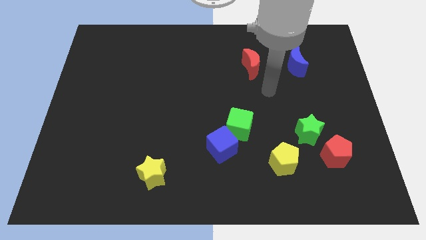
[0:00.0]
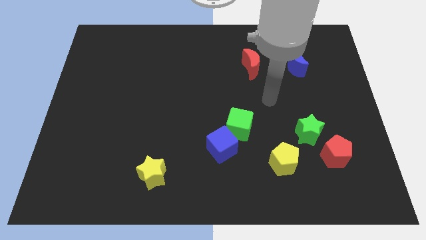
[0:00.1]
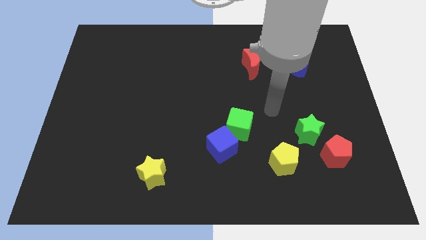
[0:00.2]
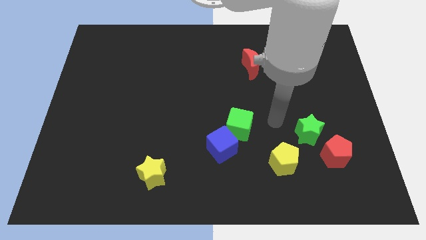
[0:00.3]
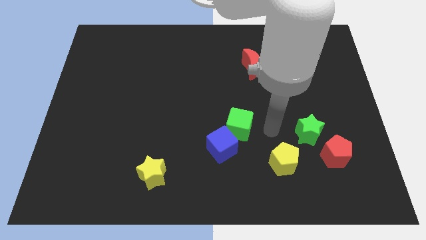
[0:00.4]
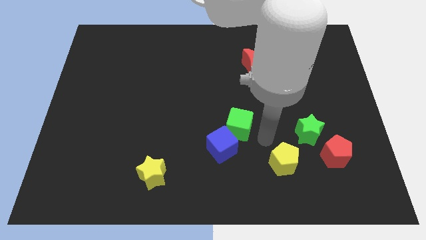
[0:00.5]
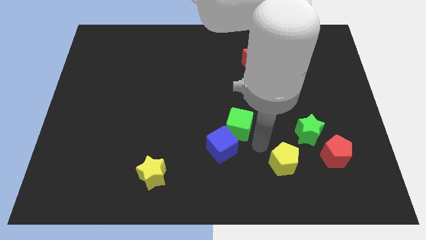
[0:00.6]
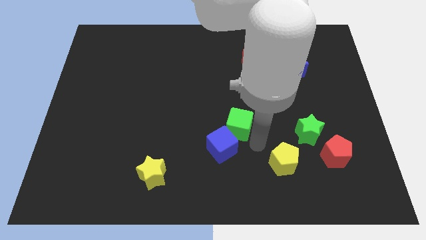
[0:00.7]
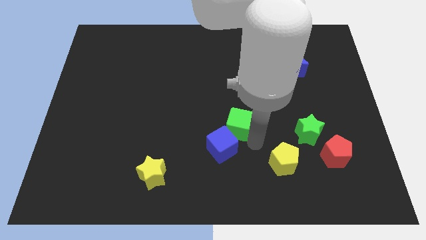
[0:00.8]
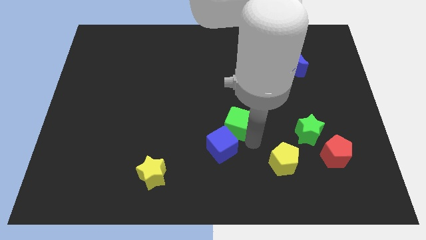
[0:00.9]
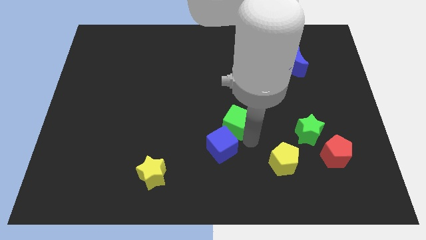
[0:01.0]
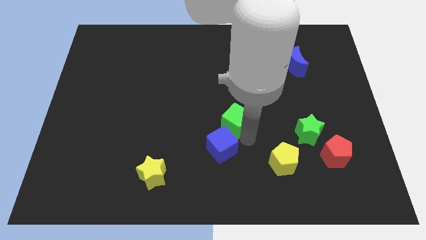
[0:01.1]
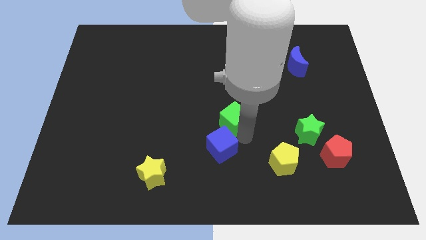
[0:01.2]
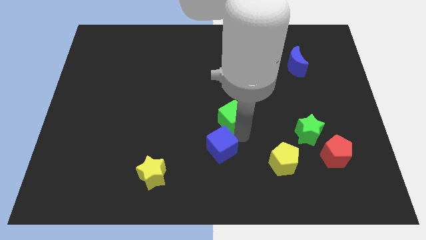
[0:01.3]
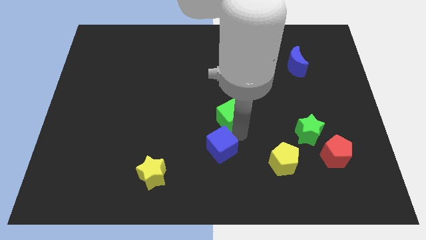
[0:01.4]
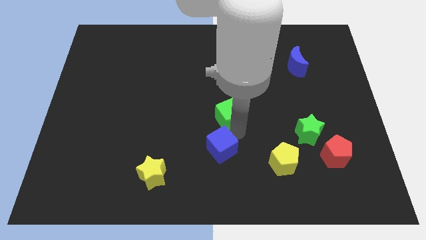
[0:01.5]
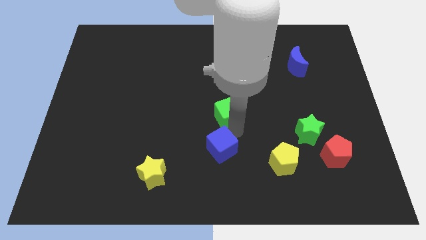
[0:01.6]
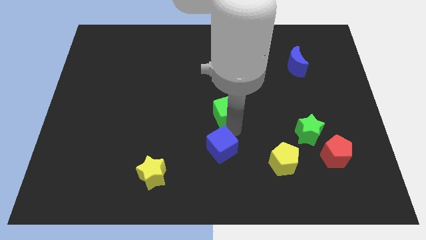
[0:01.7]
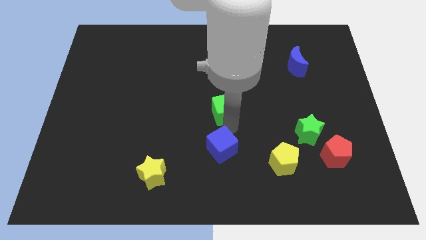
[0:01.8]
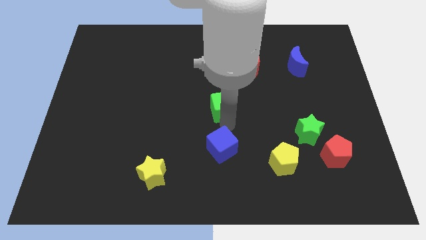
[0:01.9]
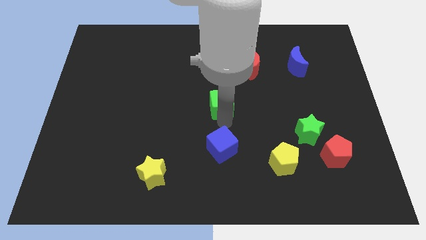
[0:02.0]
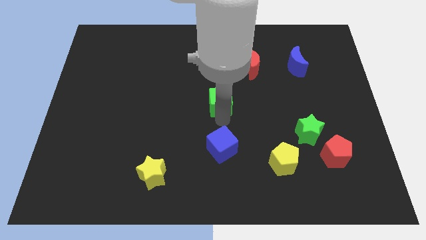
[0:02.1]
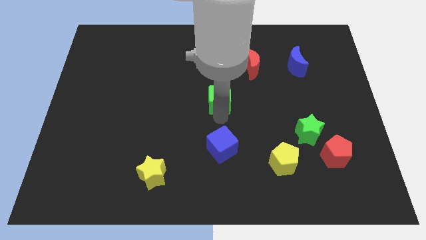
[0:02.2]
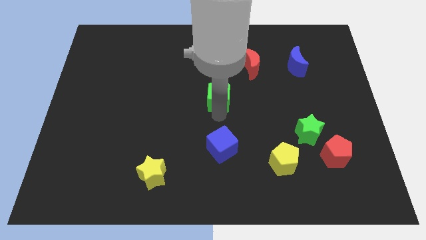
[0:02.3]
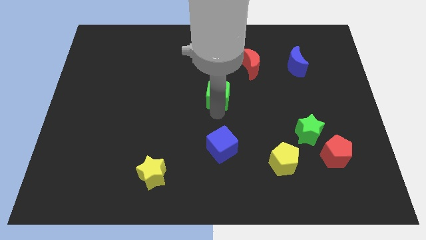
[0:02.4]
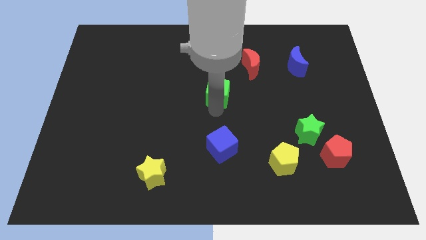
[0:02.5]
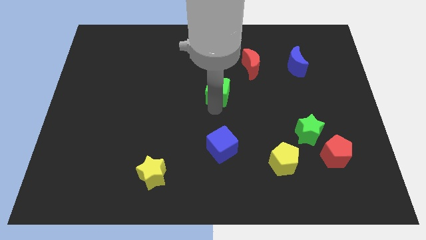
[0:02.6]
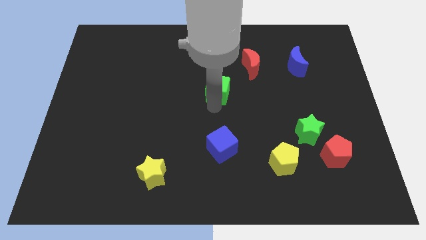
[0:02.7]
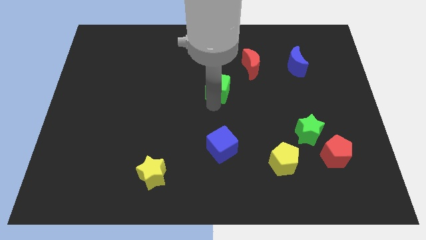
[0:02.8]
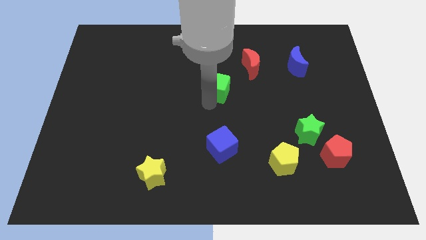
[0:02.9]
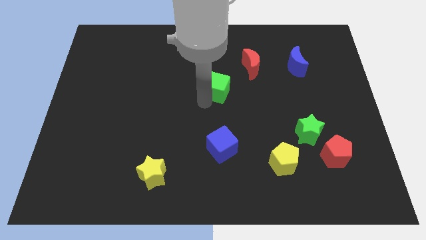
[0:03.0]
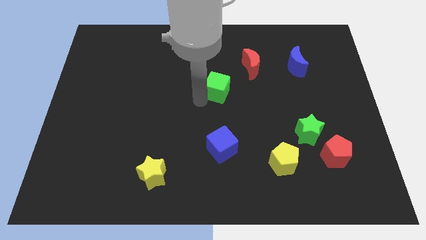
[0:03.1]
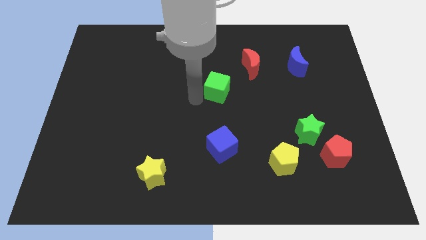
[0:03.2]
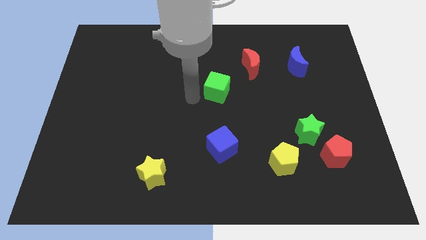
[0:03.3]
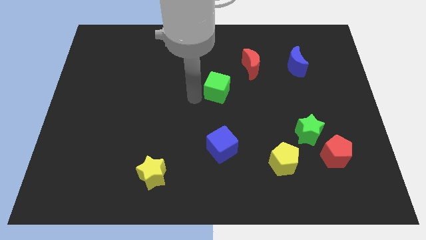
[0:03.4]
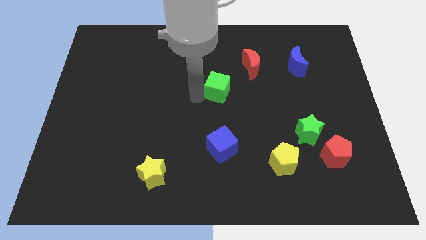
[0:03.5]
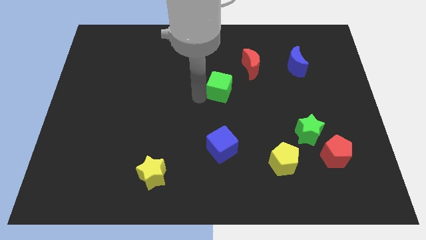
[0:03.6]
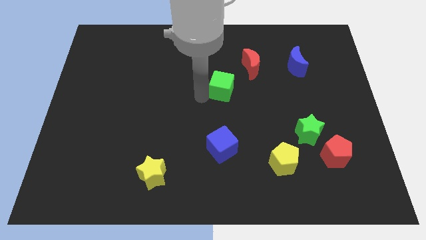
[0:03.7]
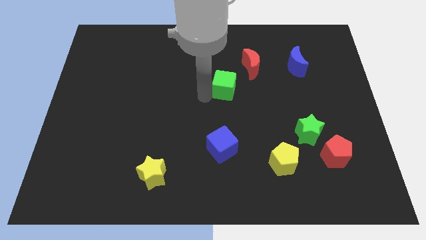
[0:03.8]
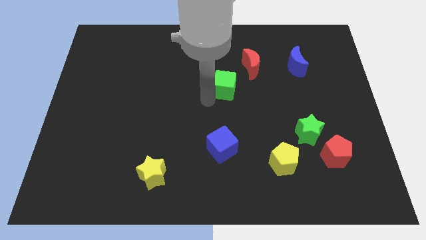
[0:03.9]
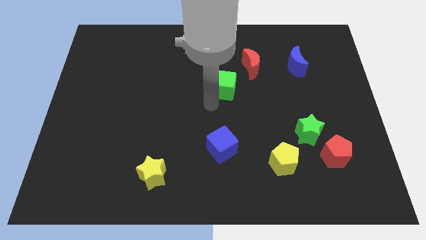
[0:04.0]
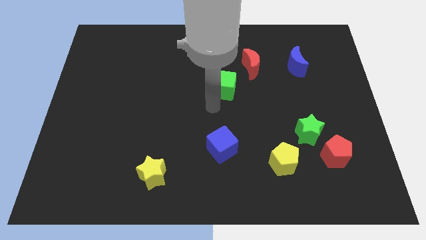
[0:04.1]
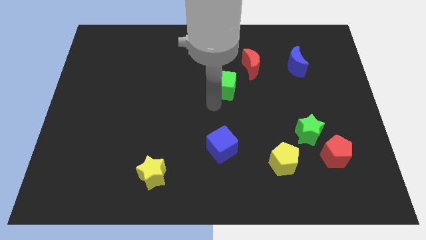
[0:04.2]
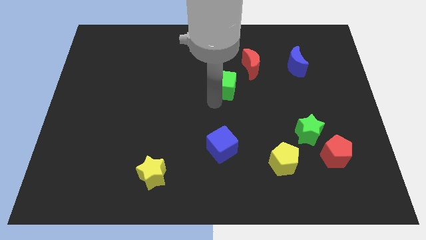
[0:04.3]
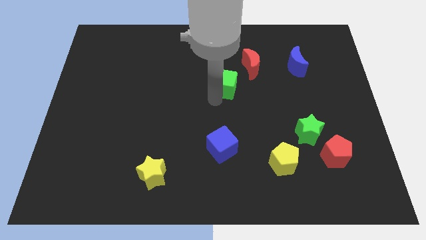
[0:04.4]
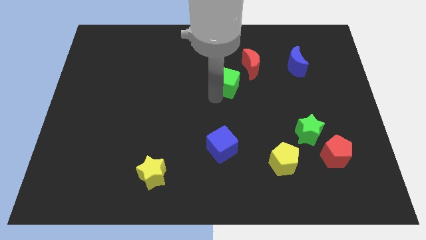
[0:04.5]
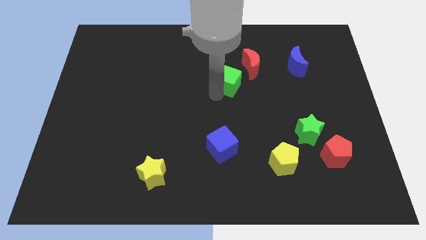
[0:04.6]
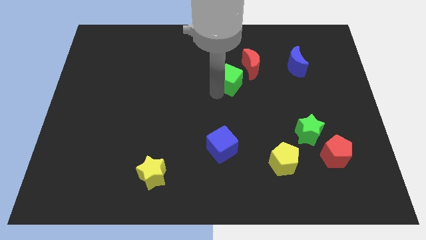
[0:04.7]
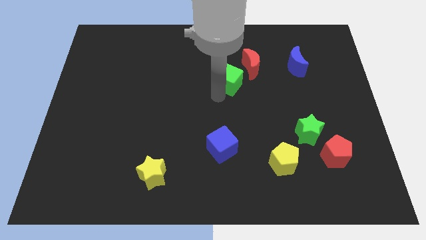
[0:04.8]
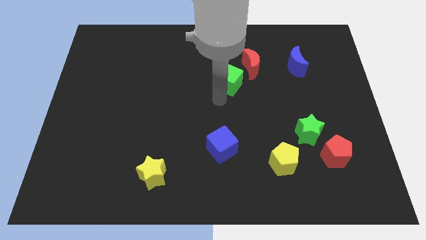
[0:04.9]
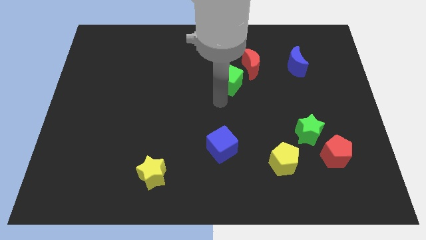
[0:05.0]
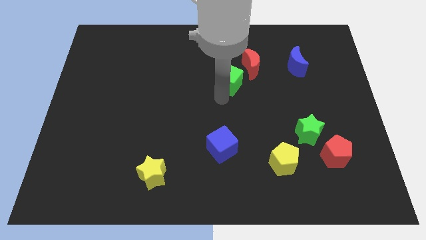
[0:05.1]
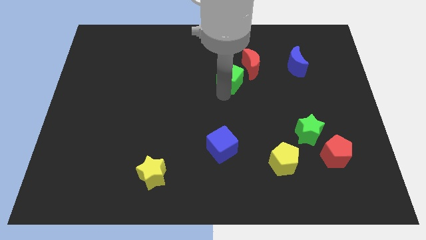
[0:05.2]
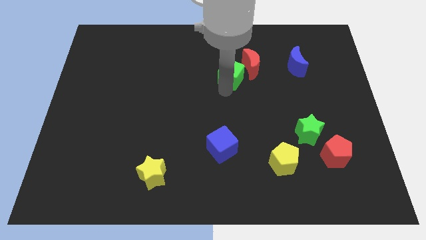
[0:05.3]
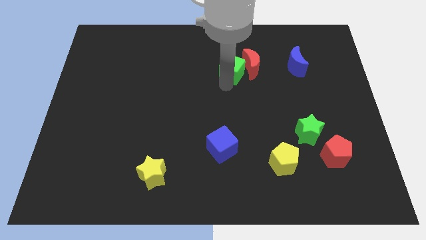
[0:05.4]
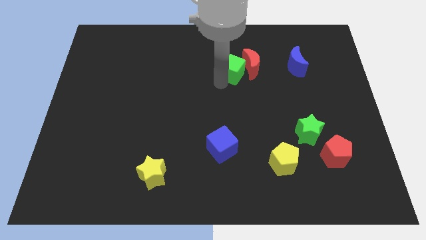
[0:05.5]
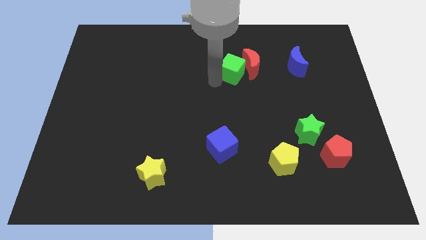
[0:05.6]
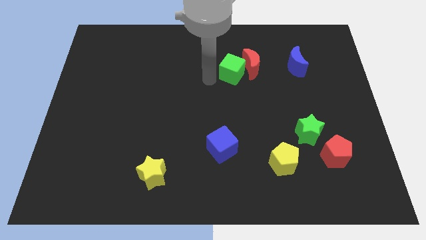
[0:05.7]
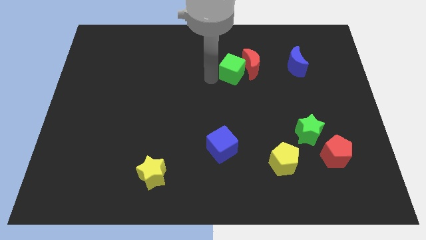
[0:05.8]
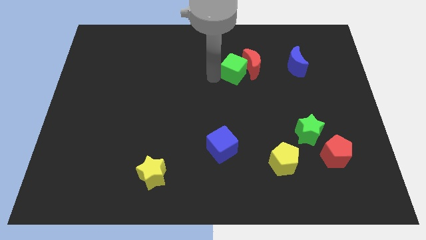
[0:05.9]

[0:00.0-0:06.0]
move the green cube left of the blue moon
